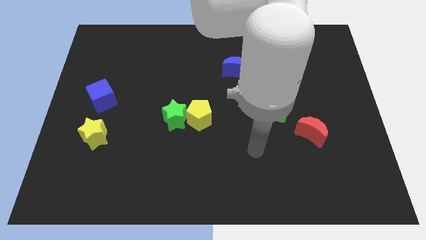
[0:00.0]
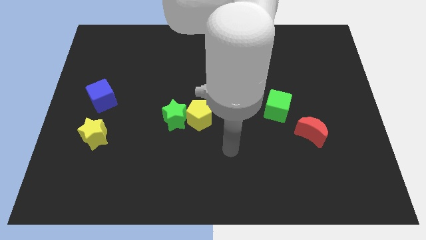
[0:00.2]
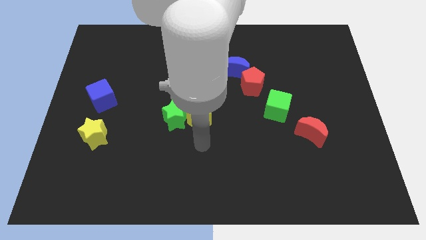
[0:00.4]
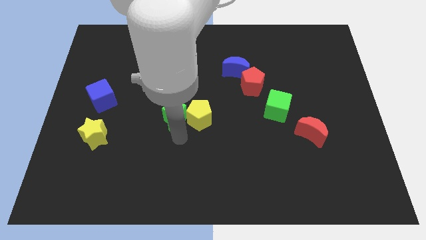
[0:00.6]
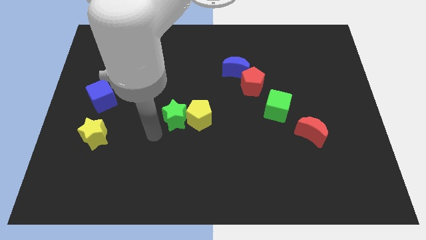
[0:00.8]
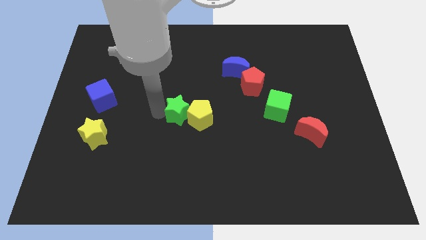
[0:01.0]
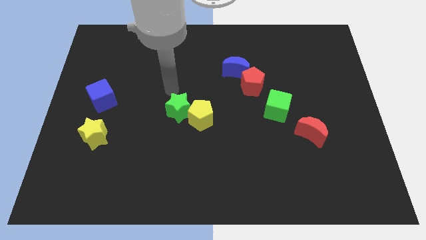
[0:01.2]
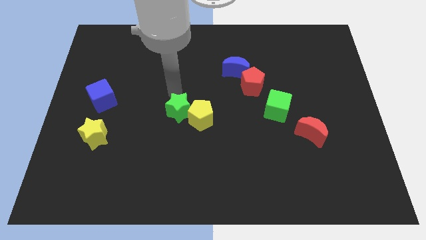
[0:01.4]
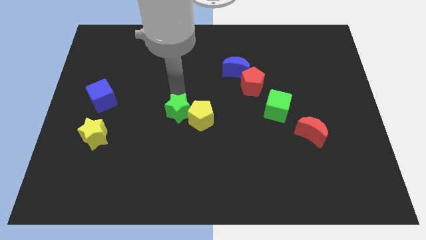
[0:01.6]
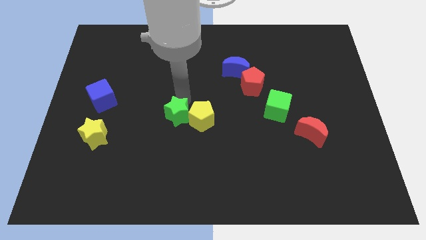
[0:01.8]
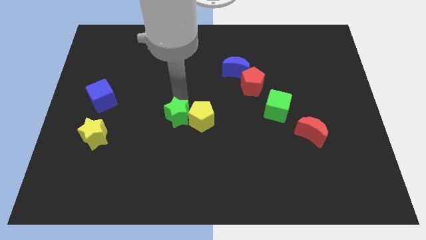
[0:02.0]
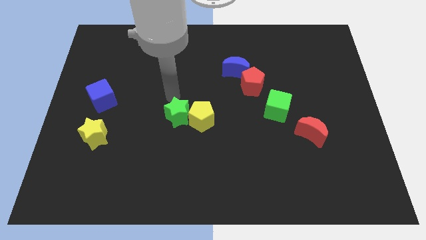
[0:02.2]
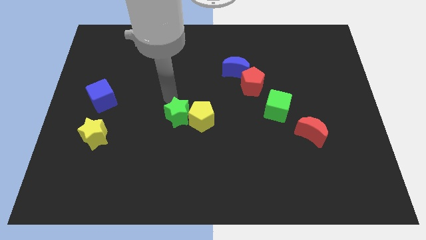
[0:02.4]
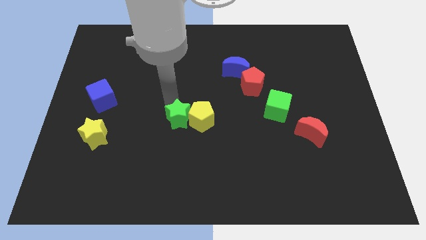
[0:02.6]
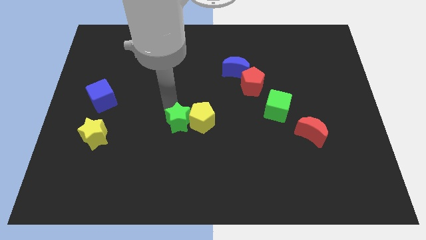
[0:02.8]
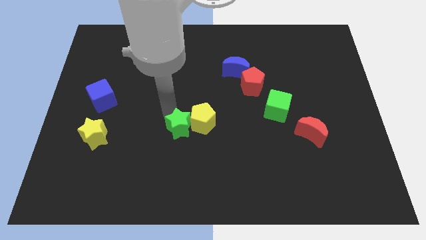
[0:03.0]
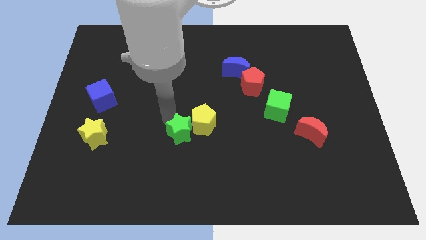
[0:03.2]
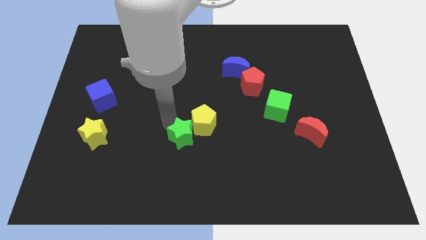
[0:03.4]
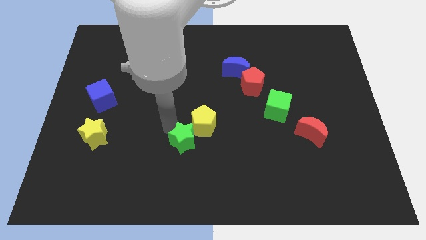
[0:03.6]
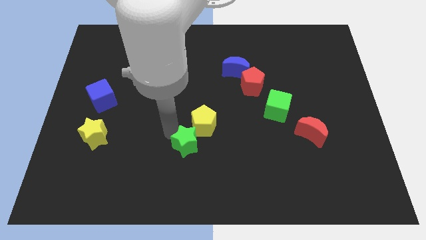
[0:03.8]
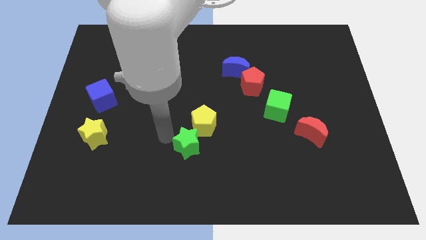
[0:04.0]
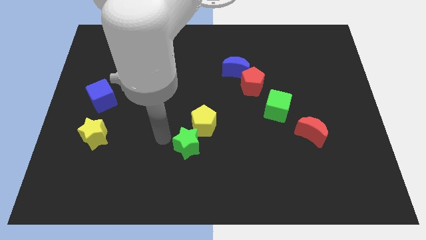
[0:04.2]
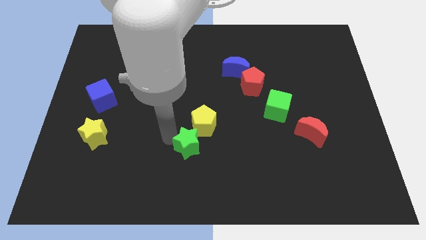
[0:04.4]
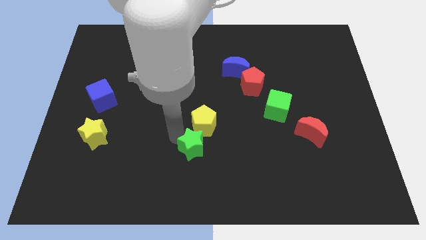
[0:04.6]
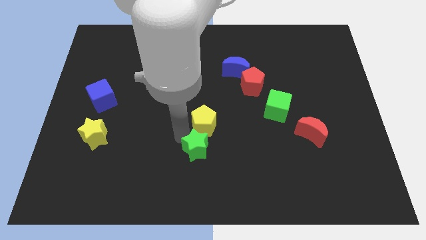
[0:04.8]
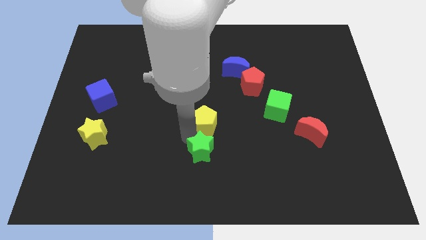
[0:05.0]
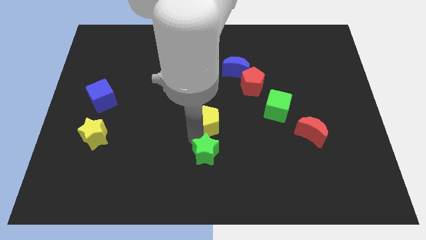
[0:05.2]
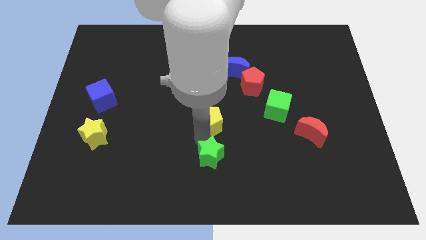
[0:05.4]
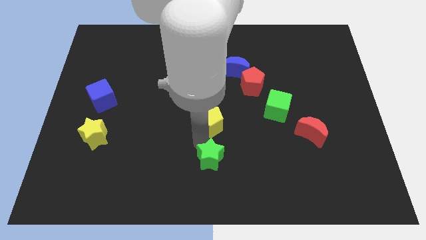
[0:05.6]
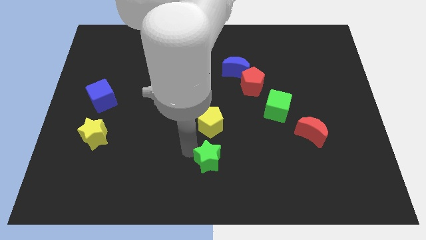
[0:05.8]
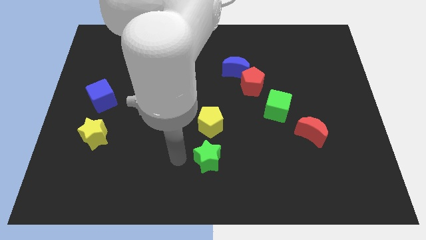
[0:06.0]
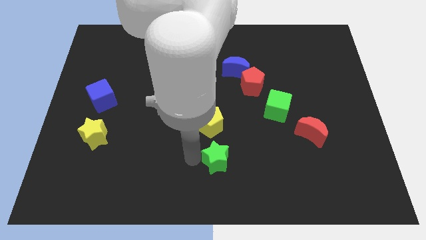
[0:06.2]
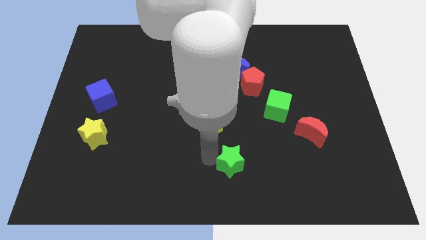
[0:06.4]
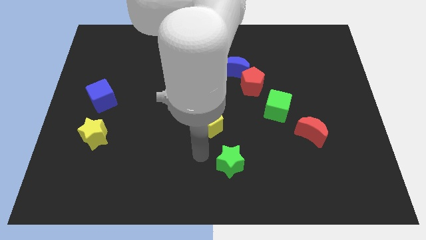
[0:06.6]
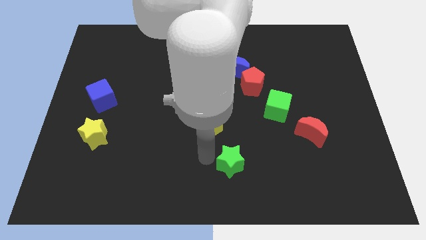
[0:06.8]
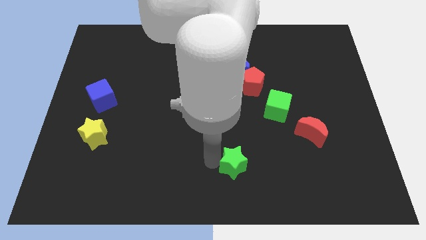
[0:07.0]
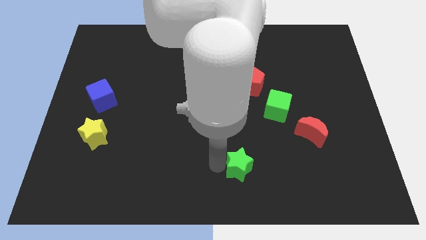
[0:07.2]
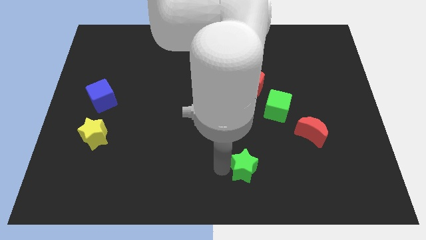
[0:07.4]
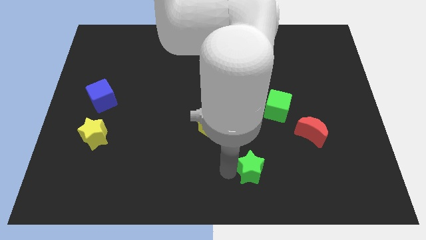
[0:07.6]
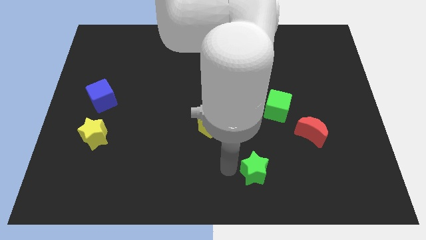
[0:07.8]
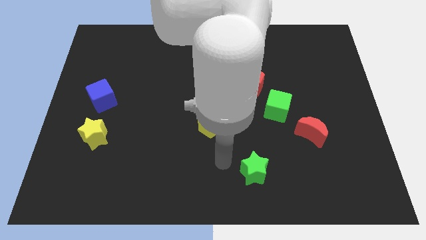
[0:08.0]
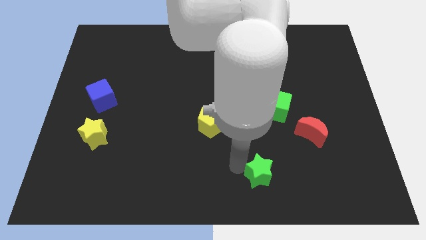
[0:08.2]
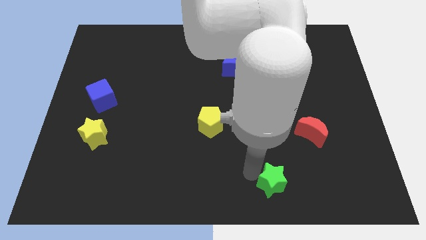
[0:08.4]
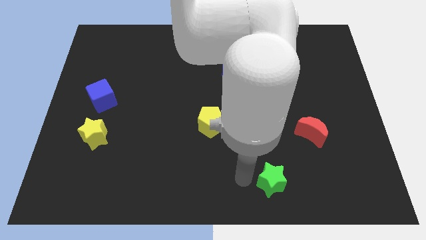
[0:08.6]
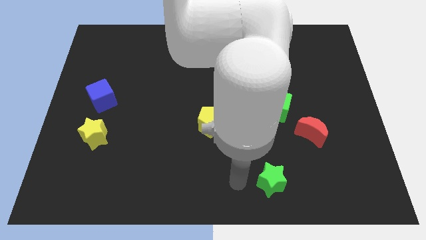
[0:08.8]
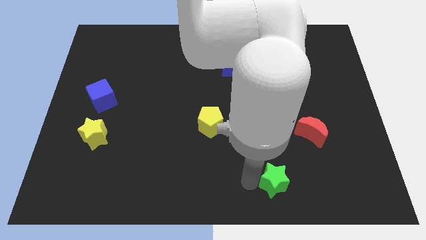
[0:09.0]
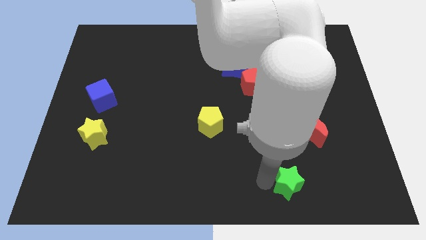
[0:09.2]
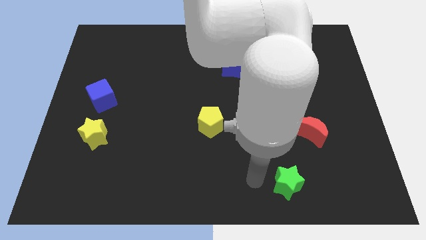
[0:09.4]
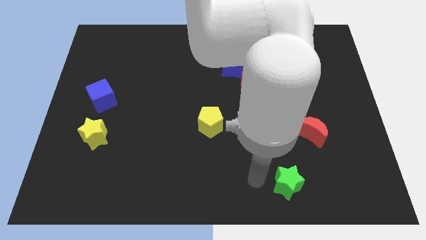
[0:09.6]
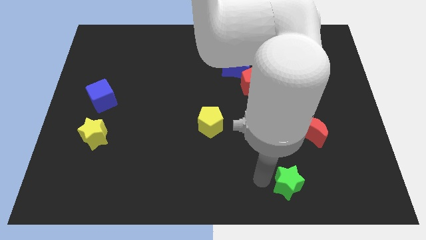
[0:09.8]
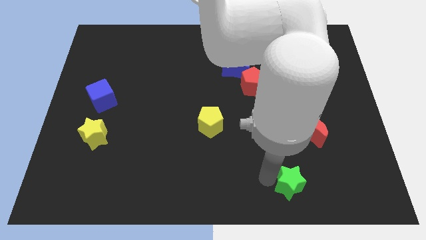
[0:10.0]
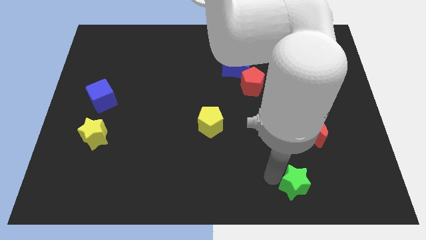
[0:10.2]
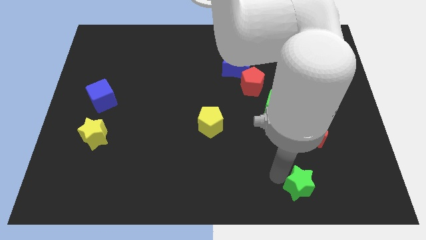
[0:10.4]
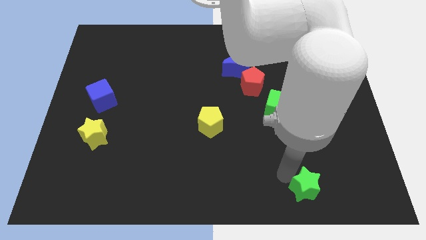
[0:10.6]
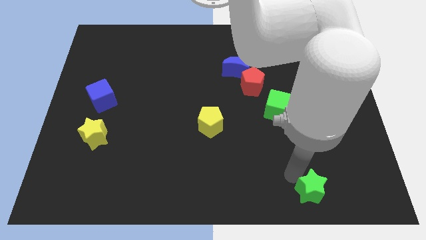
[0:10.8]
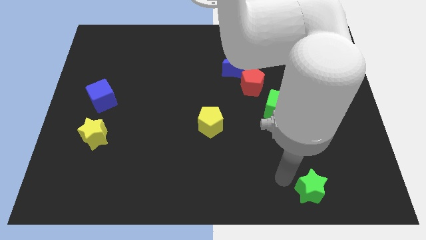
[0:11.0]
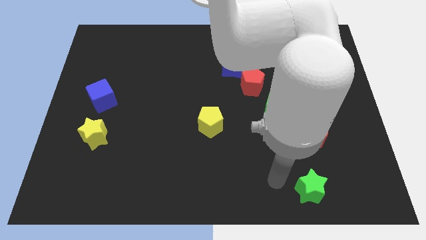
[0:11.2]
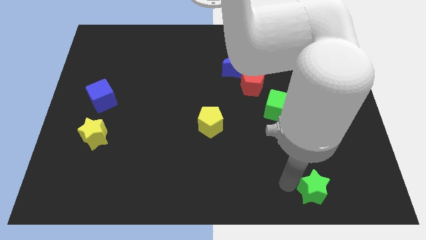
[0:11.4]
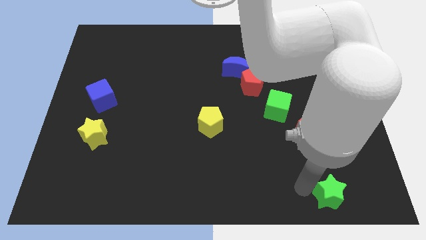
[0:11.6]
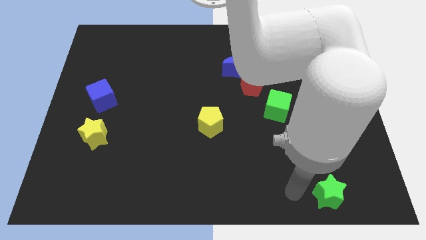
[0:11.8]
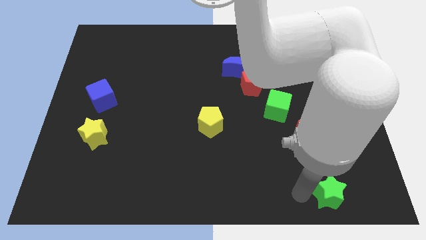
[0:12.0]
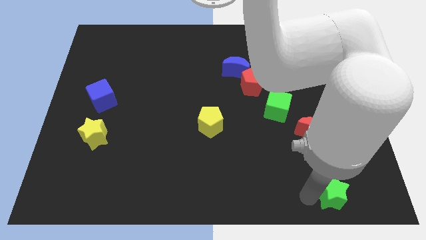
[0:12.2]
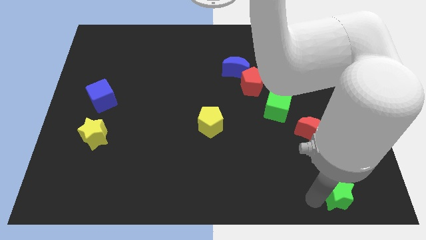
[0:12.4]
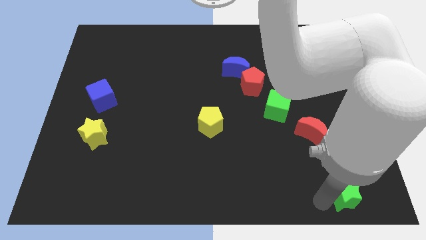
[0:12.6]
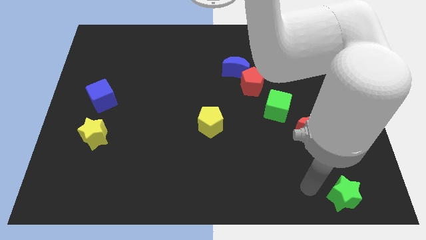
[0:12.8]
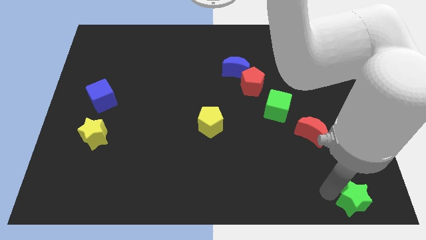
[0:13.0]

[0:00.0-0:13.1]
move the green star to the bottom right corner
